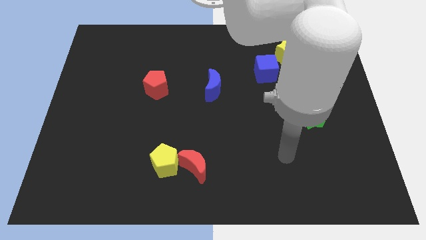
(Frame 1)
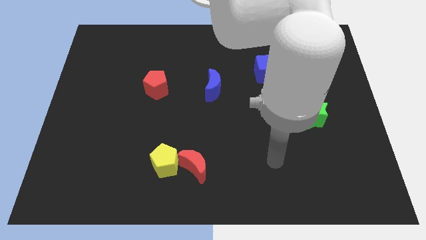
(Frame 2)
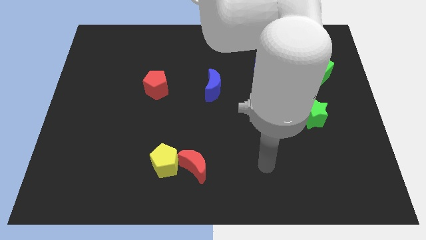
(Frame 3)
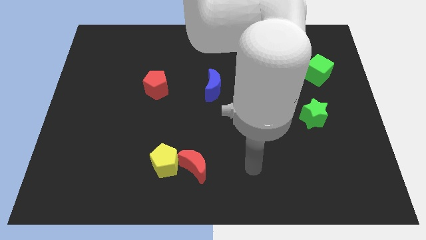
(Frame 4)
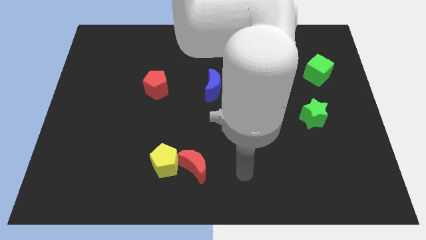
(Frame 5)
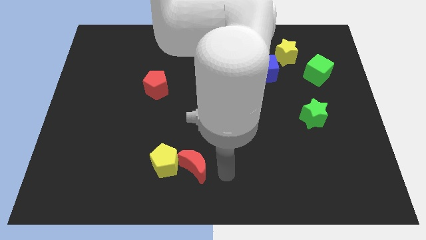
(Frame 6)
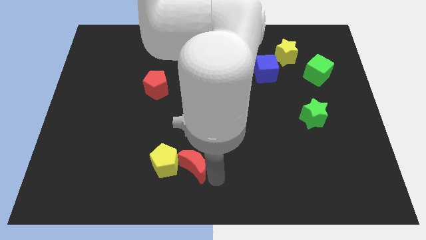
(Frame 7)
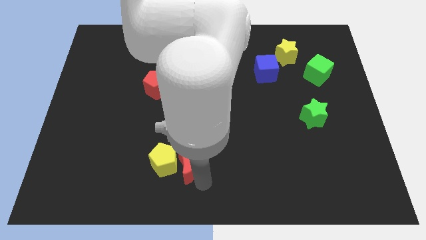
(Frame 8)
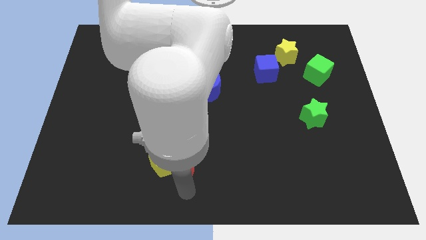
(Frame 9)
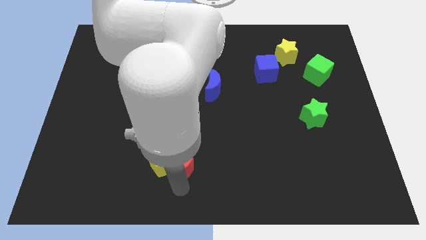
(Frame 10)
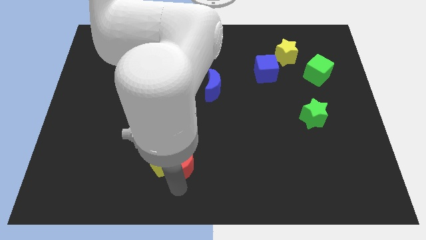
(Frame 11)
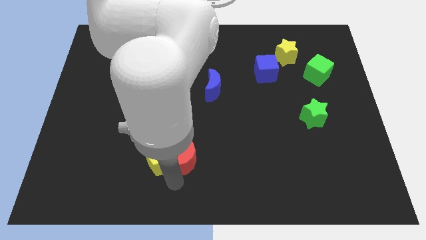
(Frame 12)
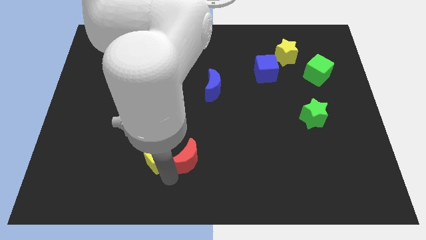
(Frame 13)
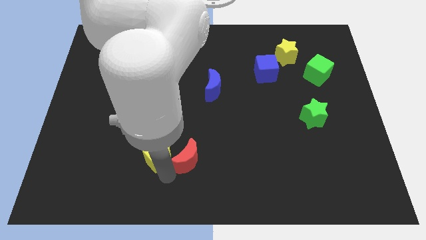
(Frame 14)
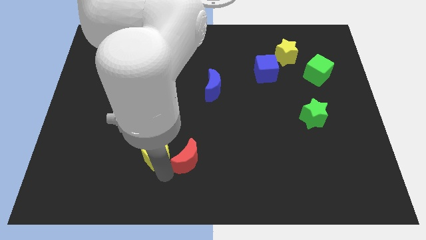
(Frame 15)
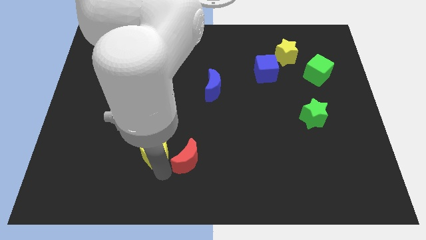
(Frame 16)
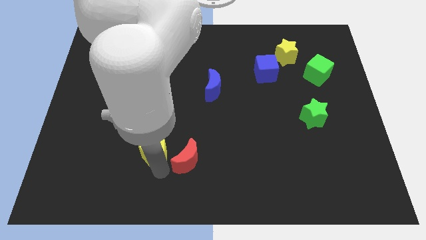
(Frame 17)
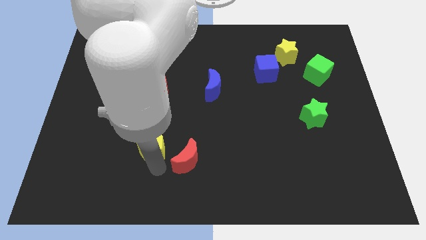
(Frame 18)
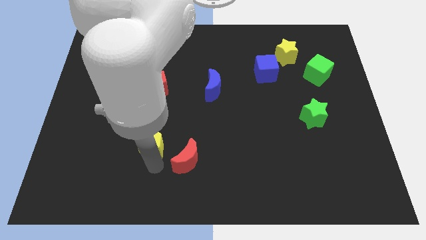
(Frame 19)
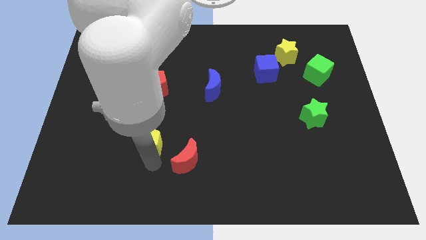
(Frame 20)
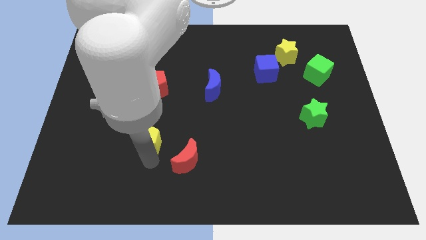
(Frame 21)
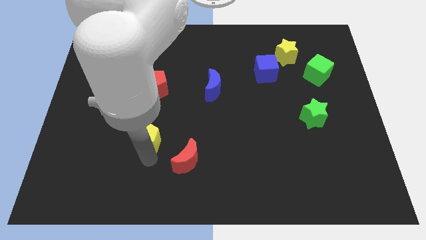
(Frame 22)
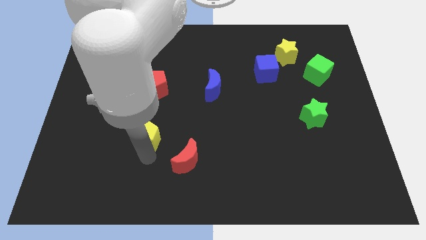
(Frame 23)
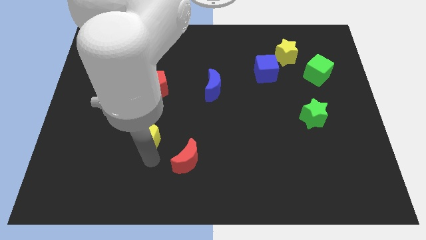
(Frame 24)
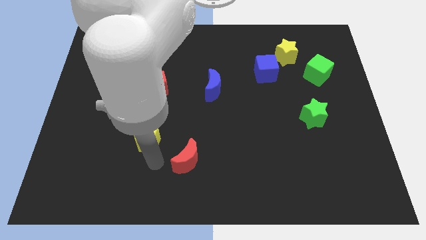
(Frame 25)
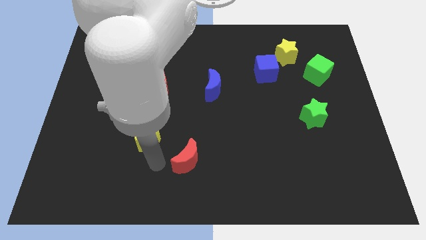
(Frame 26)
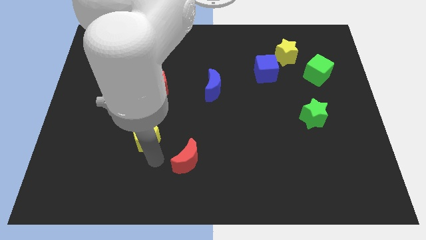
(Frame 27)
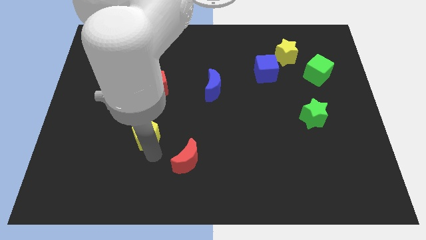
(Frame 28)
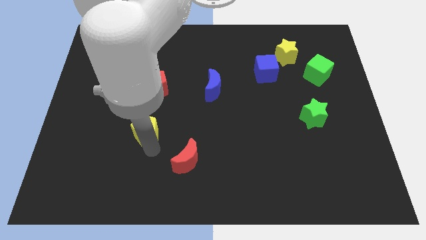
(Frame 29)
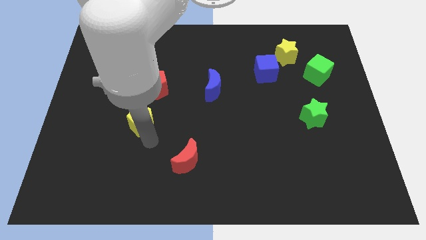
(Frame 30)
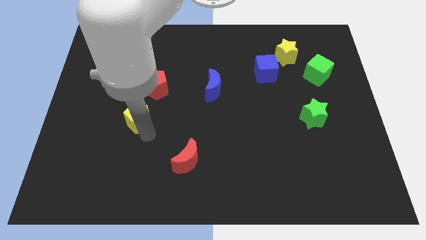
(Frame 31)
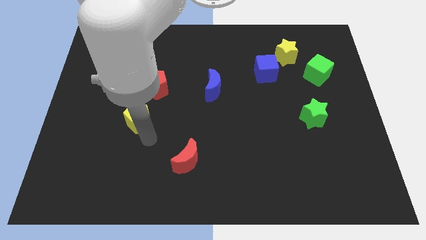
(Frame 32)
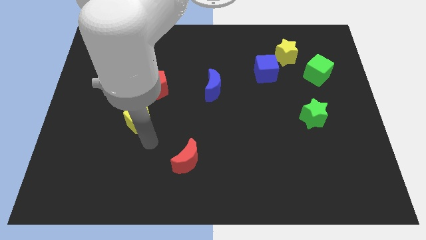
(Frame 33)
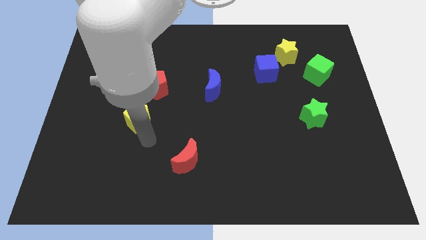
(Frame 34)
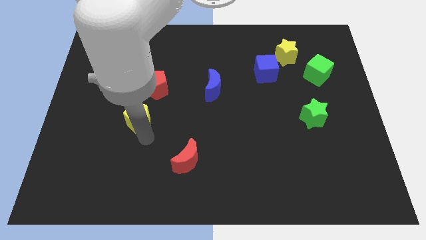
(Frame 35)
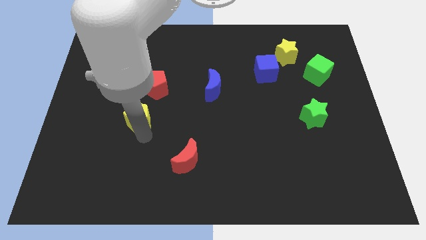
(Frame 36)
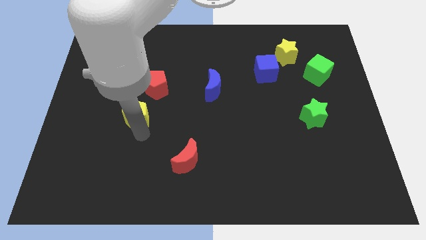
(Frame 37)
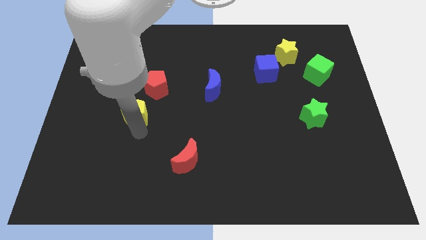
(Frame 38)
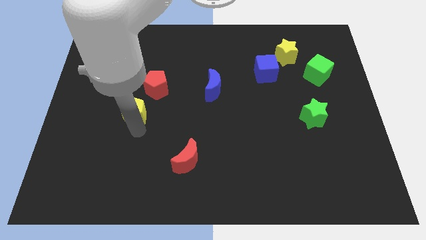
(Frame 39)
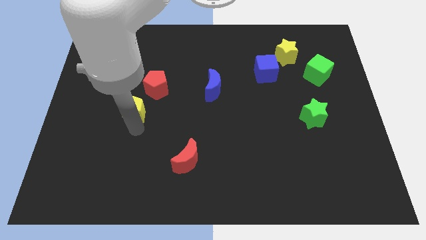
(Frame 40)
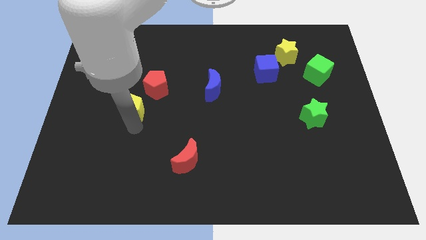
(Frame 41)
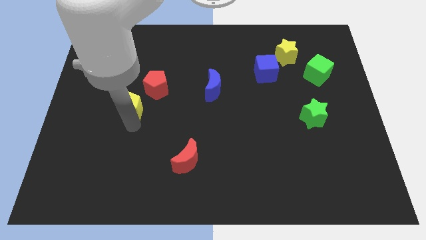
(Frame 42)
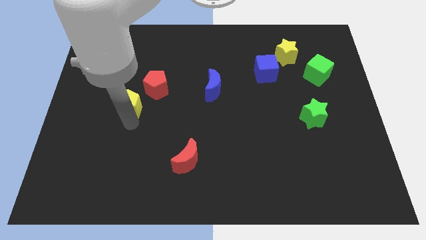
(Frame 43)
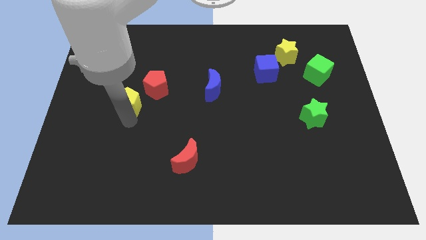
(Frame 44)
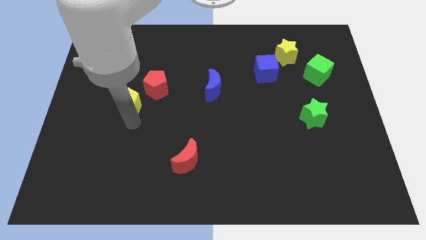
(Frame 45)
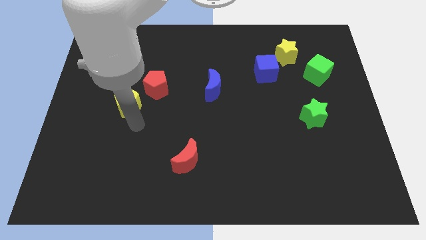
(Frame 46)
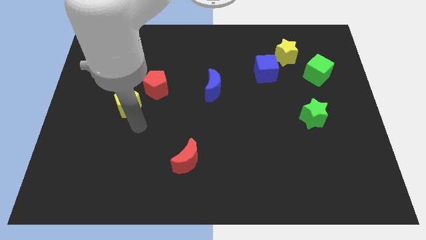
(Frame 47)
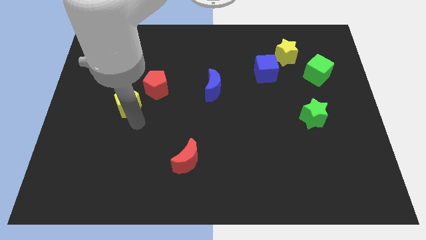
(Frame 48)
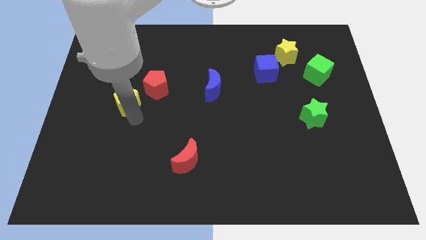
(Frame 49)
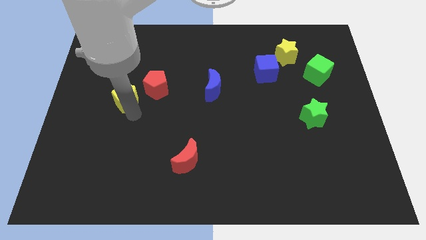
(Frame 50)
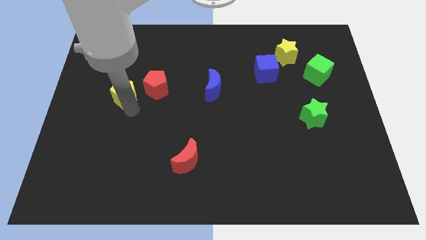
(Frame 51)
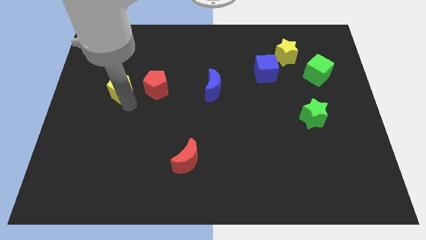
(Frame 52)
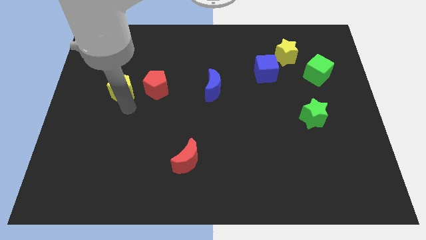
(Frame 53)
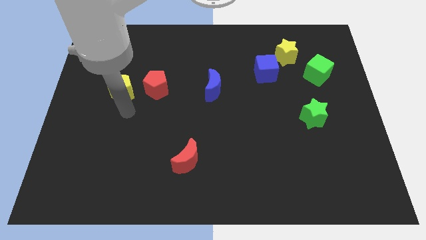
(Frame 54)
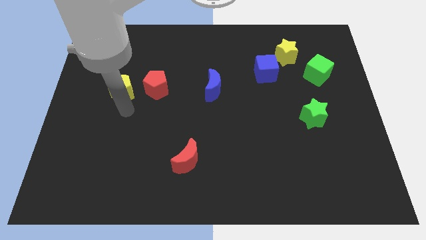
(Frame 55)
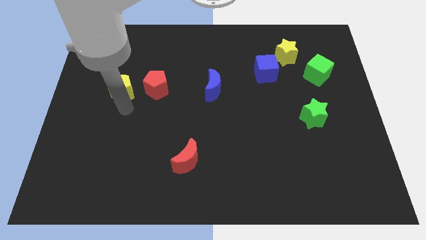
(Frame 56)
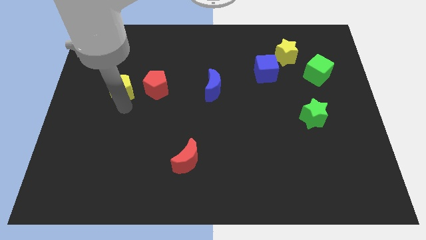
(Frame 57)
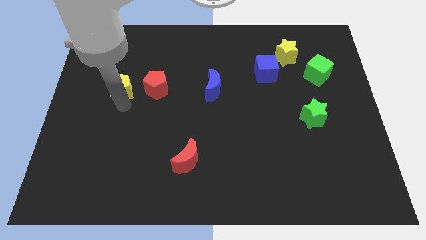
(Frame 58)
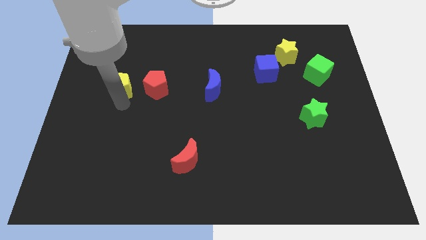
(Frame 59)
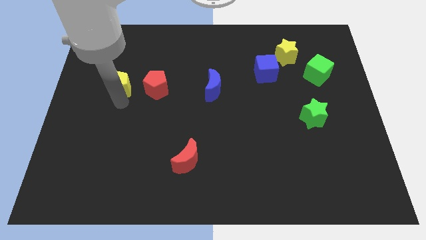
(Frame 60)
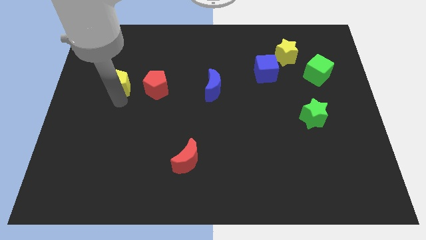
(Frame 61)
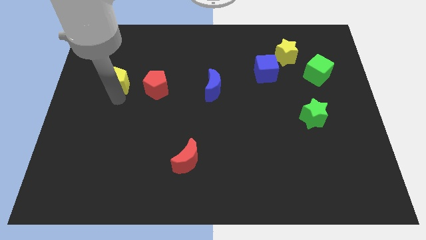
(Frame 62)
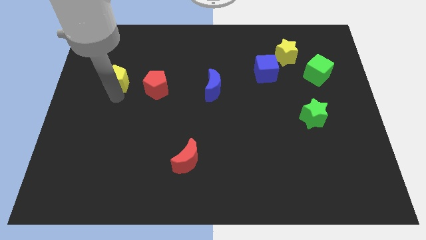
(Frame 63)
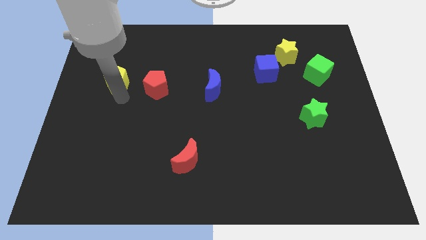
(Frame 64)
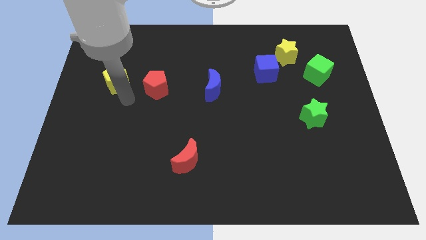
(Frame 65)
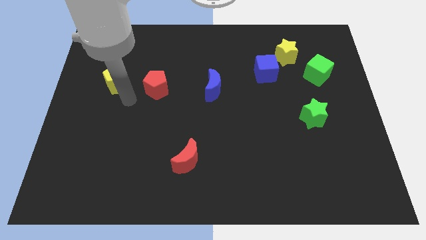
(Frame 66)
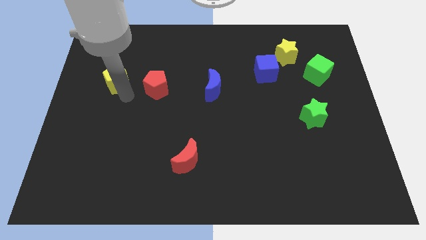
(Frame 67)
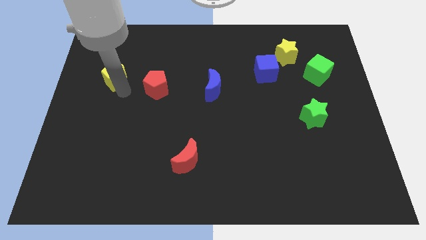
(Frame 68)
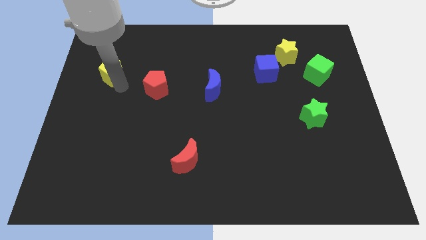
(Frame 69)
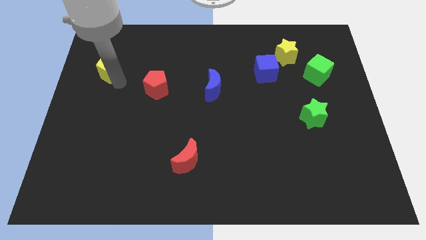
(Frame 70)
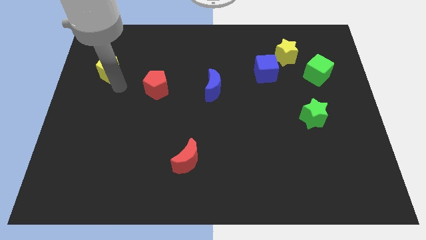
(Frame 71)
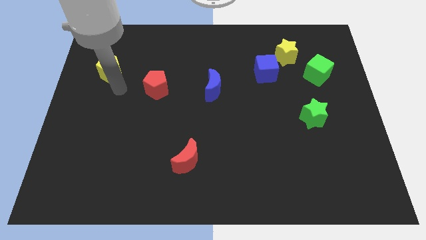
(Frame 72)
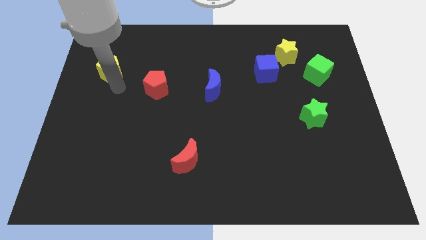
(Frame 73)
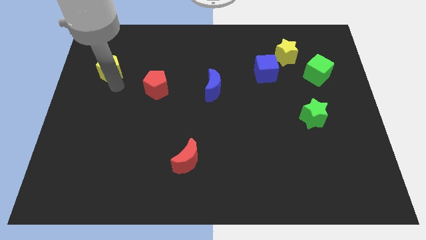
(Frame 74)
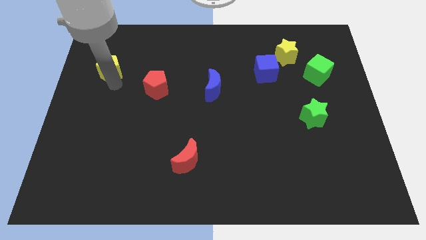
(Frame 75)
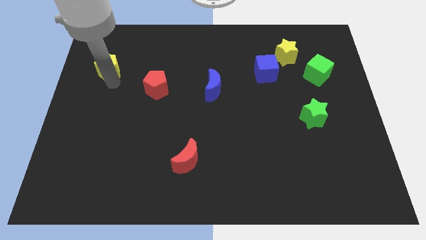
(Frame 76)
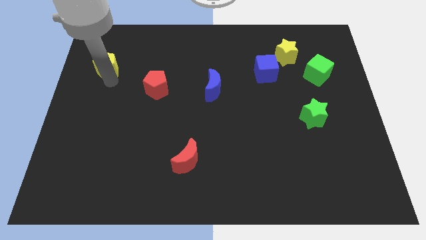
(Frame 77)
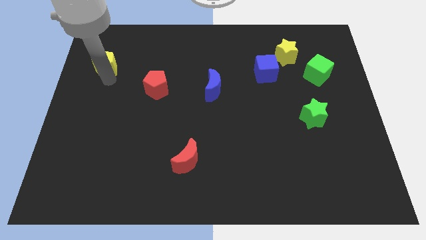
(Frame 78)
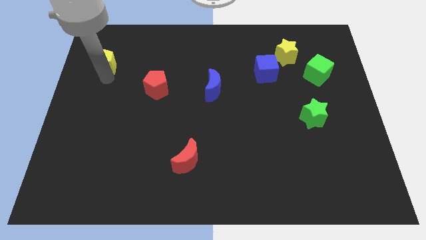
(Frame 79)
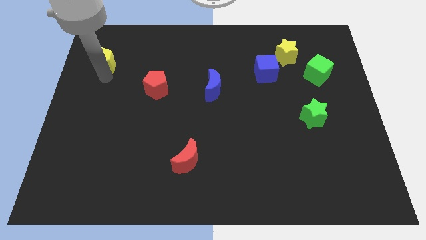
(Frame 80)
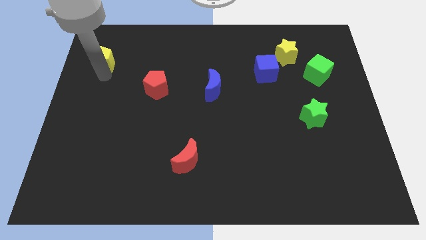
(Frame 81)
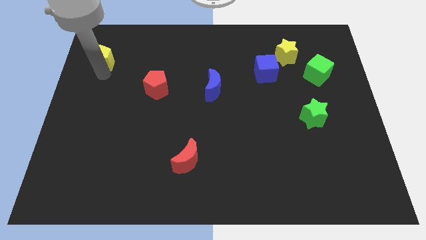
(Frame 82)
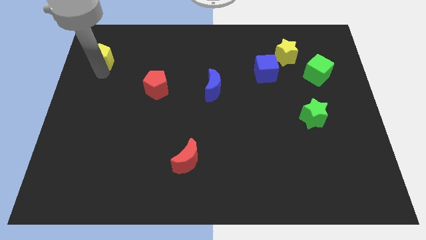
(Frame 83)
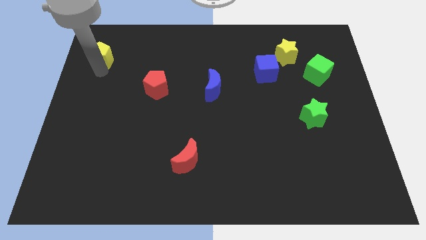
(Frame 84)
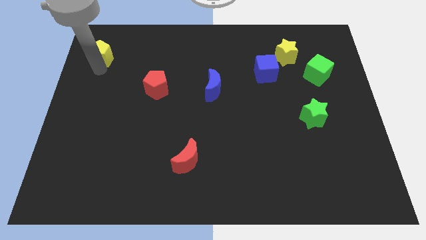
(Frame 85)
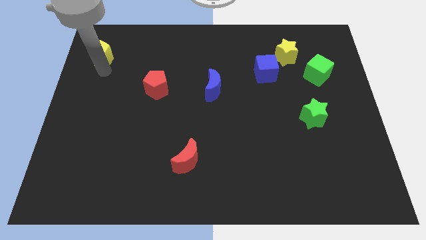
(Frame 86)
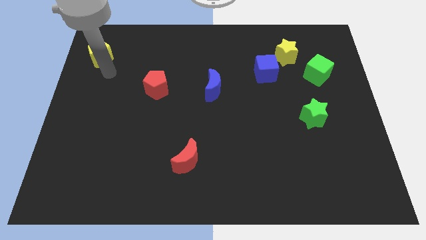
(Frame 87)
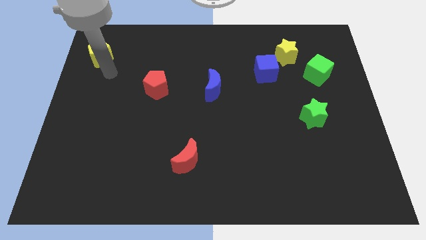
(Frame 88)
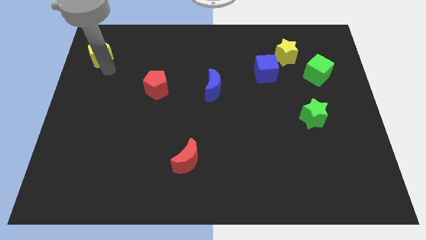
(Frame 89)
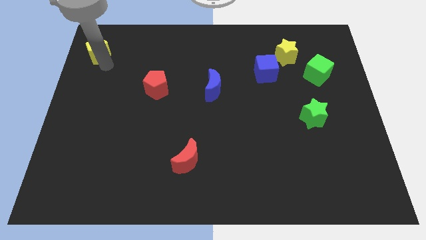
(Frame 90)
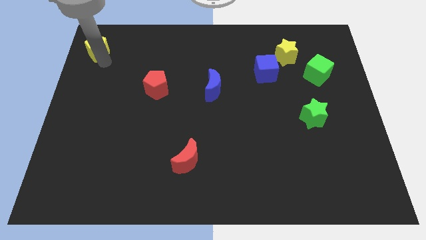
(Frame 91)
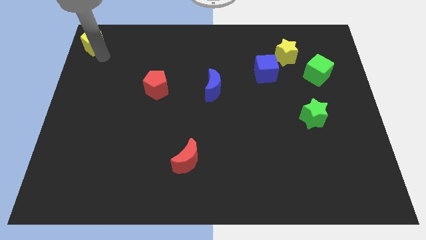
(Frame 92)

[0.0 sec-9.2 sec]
put the yellow pentagon to the top left
